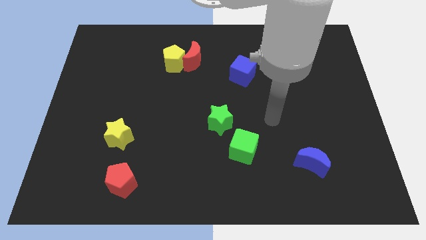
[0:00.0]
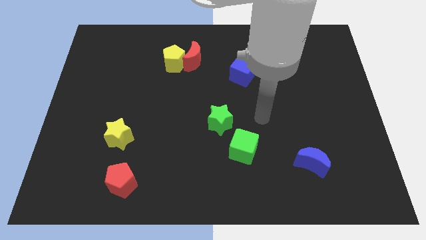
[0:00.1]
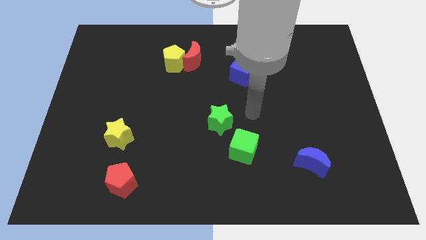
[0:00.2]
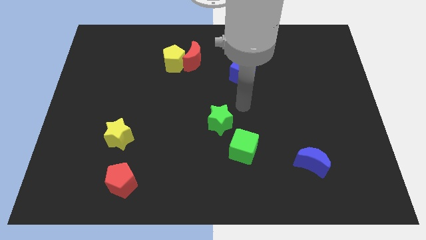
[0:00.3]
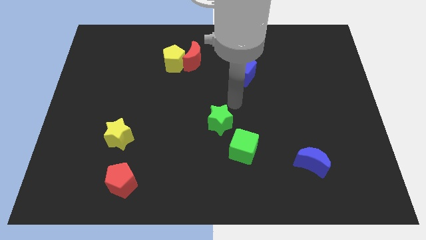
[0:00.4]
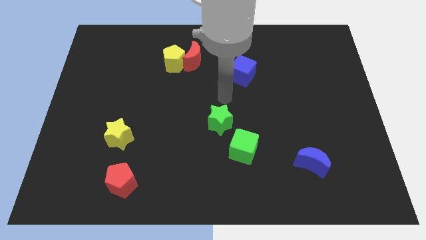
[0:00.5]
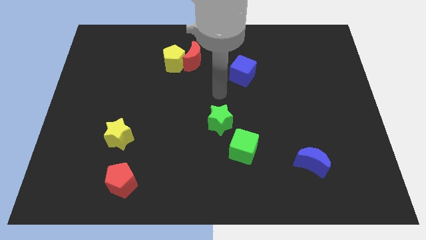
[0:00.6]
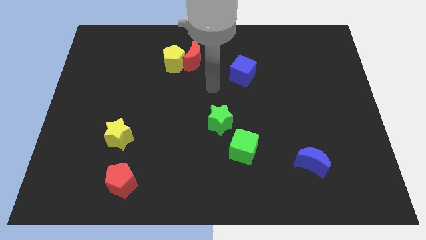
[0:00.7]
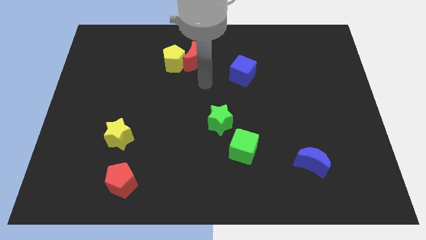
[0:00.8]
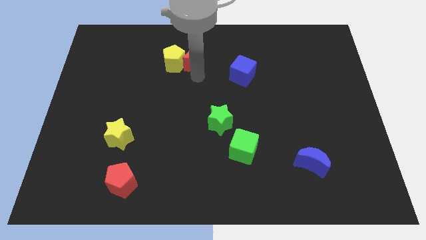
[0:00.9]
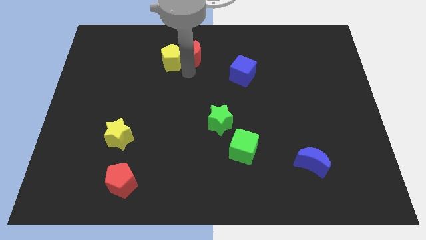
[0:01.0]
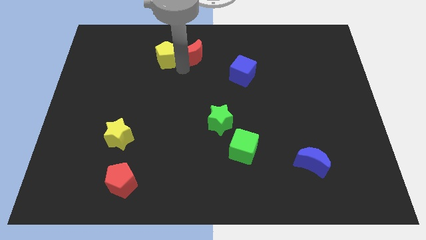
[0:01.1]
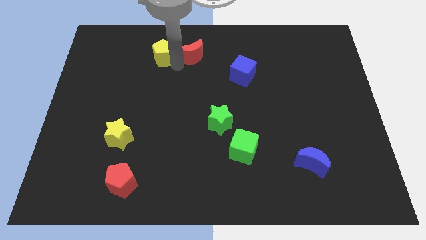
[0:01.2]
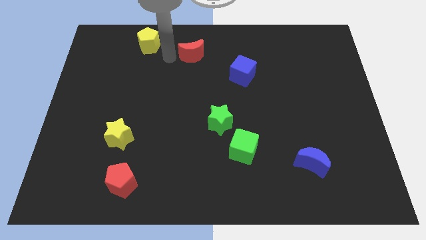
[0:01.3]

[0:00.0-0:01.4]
pull the red moon apart from the yellow pentagon

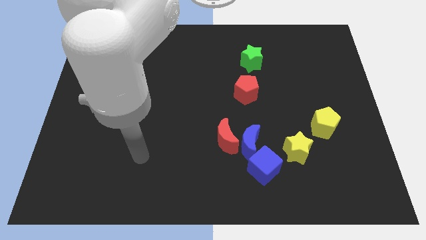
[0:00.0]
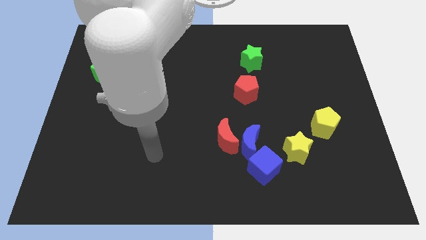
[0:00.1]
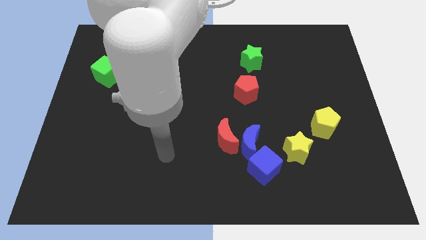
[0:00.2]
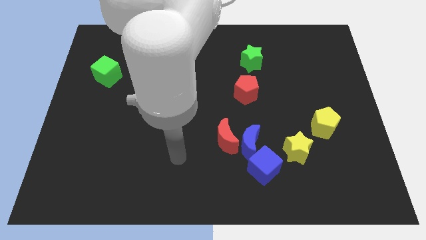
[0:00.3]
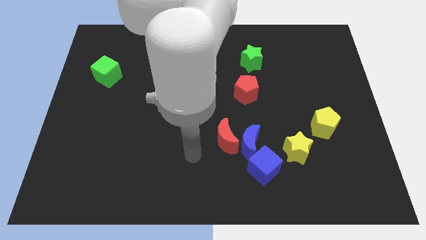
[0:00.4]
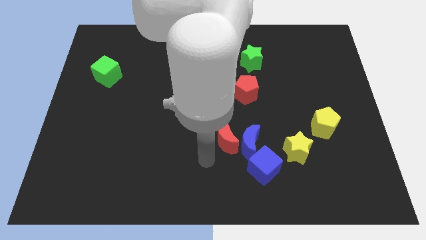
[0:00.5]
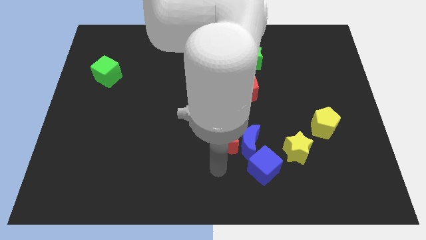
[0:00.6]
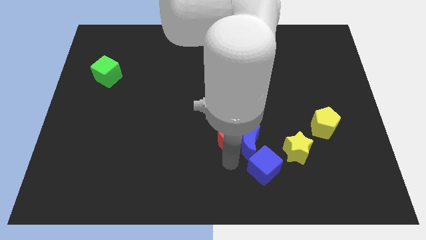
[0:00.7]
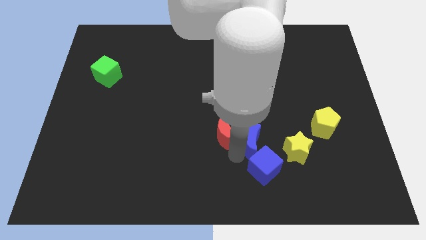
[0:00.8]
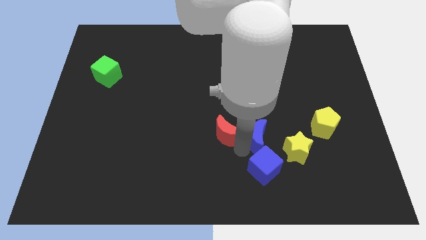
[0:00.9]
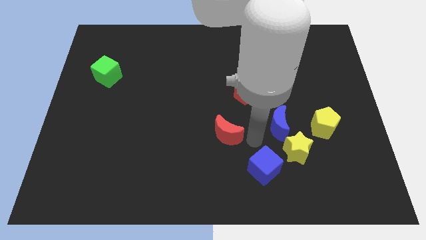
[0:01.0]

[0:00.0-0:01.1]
pull the red moon apart from the blue moon

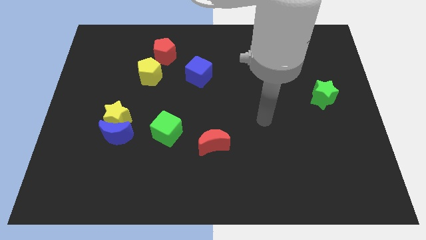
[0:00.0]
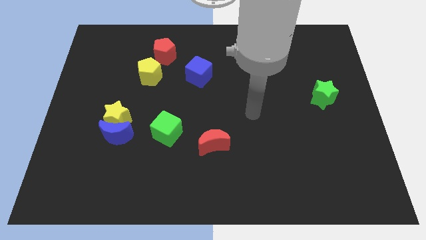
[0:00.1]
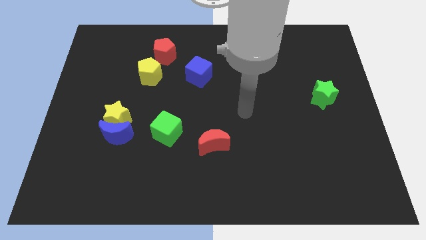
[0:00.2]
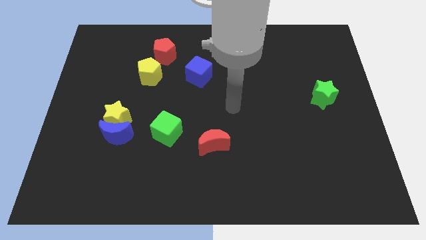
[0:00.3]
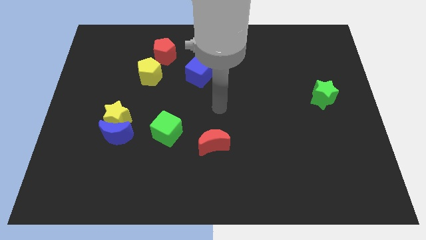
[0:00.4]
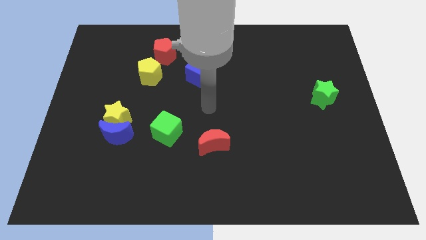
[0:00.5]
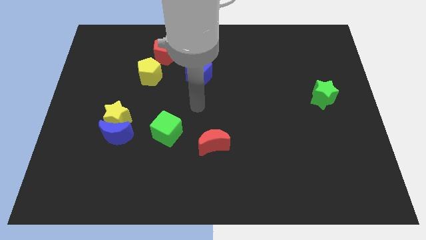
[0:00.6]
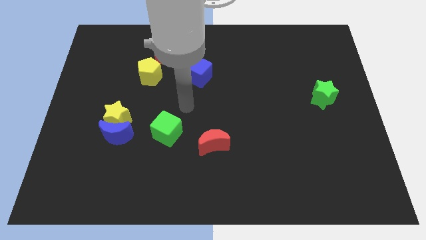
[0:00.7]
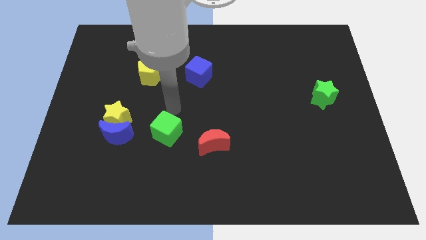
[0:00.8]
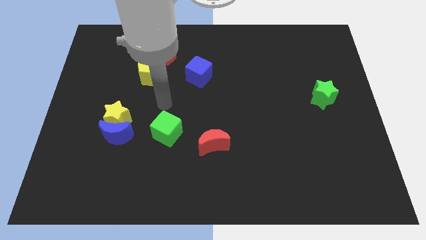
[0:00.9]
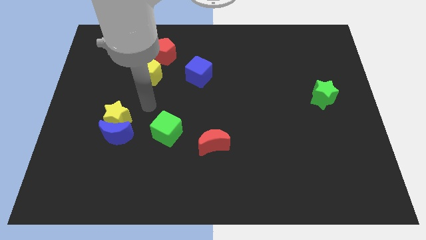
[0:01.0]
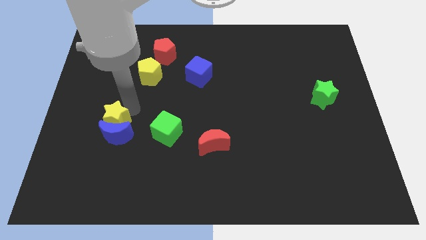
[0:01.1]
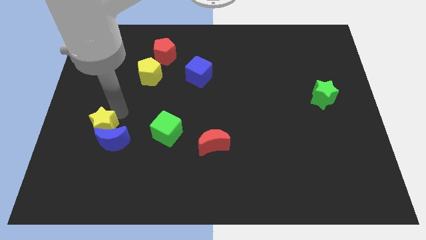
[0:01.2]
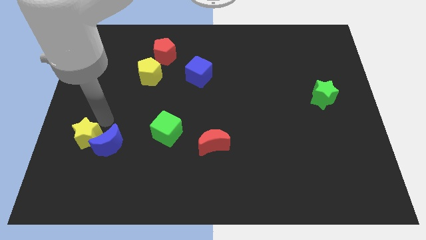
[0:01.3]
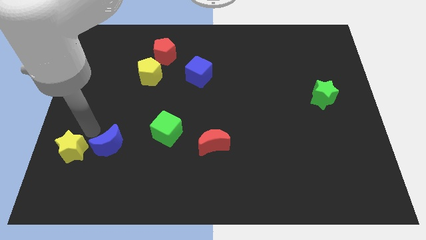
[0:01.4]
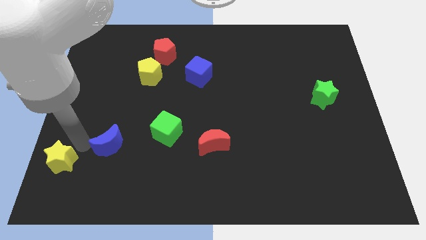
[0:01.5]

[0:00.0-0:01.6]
move the blue moon away from the yellow star

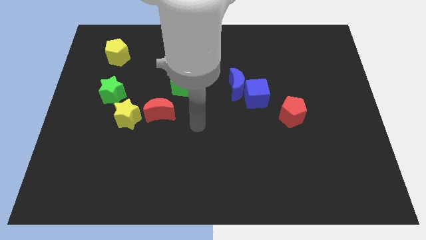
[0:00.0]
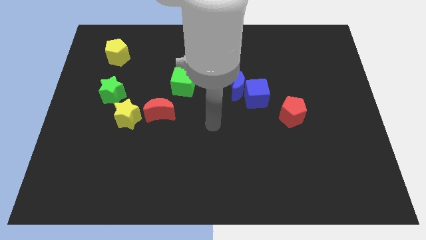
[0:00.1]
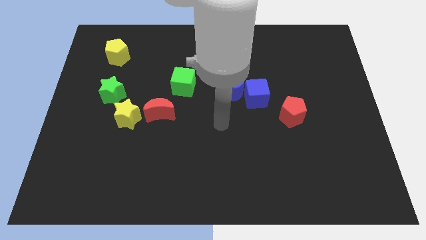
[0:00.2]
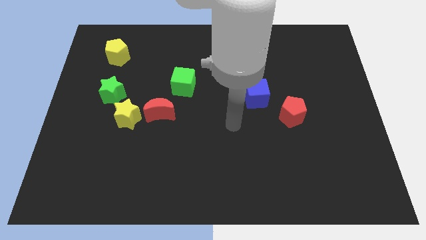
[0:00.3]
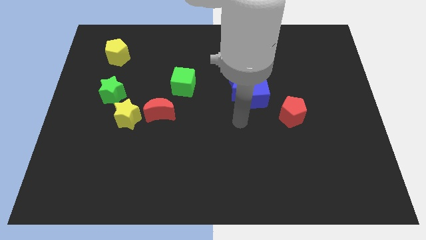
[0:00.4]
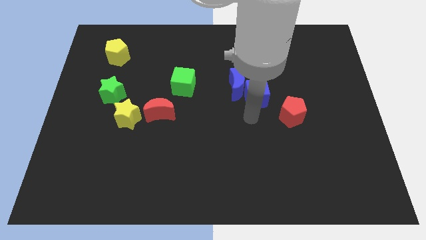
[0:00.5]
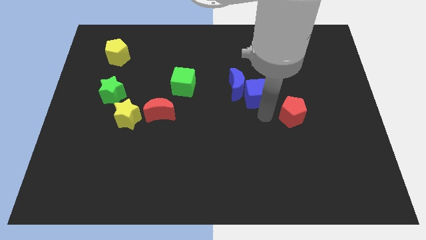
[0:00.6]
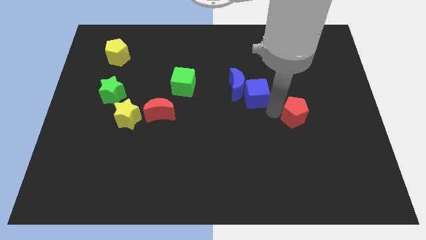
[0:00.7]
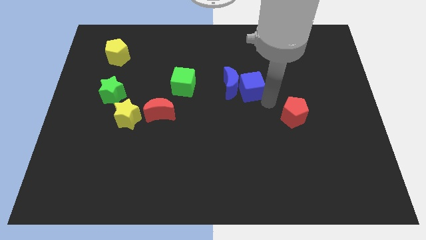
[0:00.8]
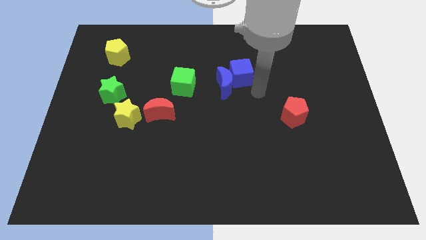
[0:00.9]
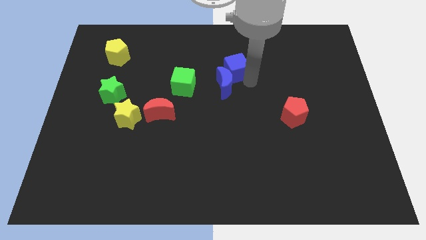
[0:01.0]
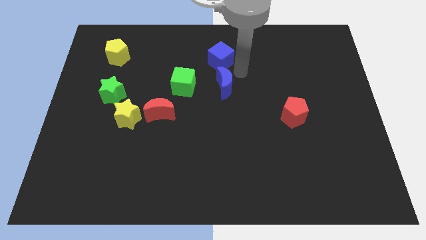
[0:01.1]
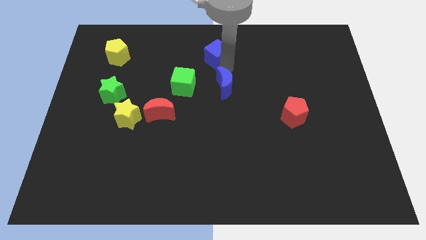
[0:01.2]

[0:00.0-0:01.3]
separate the blue moon from the blue cube

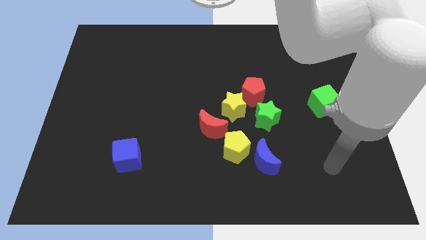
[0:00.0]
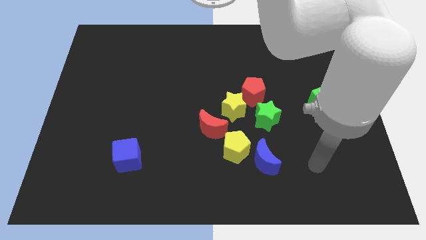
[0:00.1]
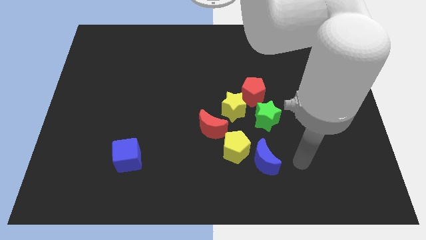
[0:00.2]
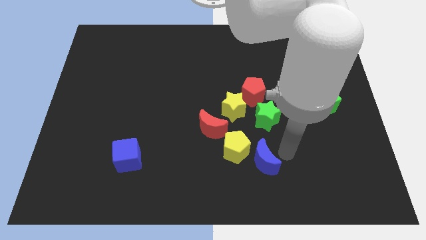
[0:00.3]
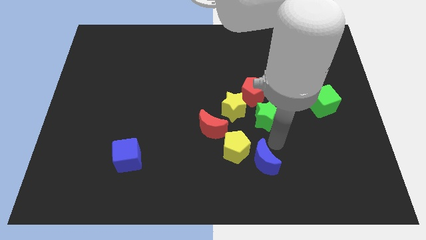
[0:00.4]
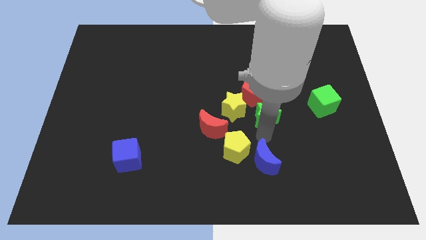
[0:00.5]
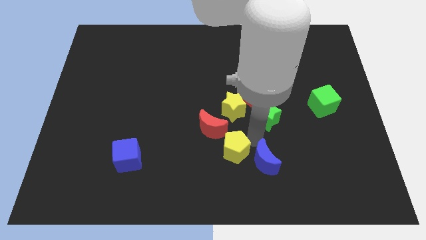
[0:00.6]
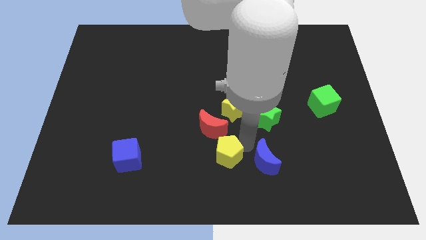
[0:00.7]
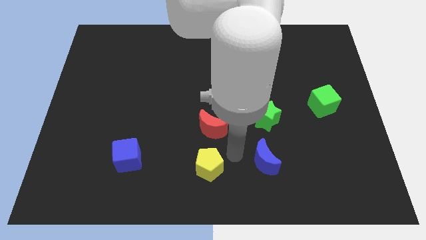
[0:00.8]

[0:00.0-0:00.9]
pull the blue moon apart from the yellow pentagon

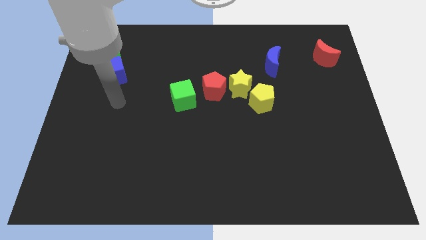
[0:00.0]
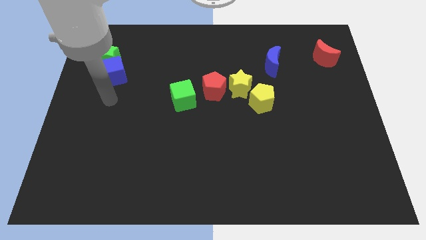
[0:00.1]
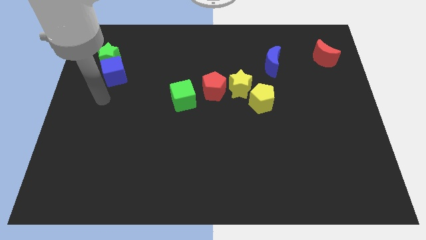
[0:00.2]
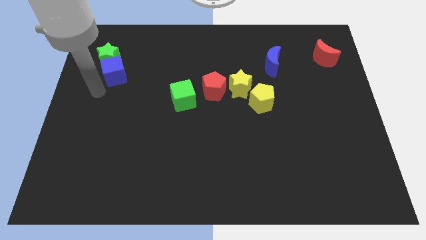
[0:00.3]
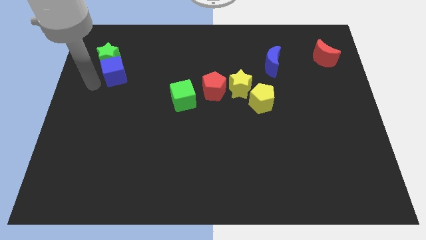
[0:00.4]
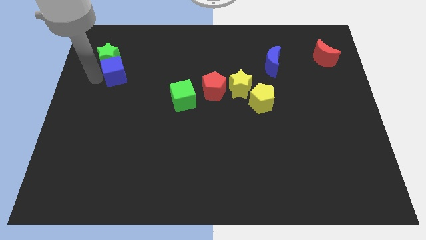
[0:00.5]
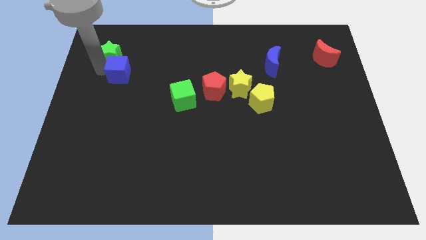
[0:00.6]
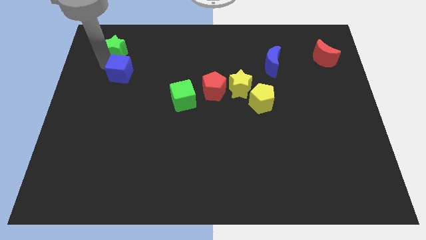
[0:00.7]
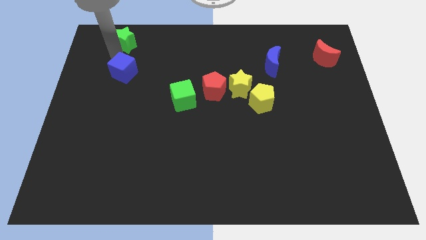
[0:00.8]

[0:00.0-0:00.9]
pull the blue cube apart from the green star

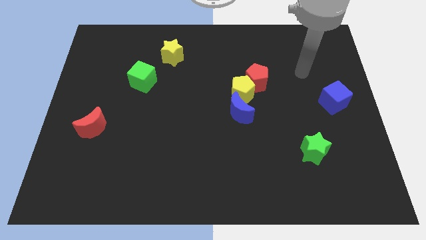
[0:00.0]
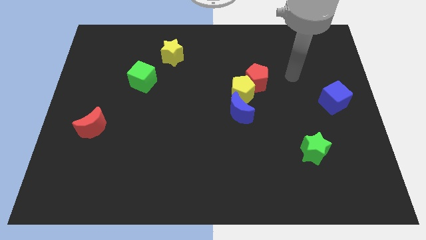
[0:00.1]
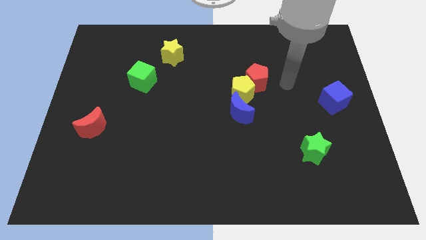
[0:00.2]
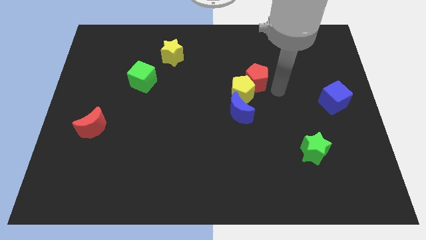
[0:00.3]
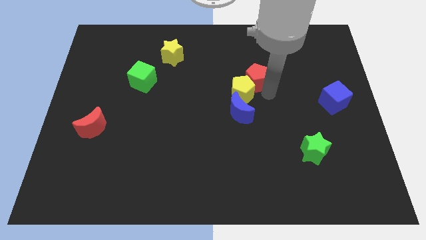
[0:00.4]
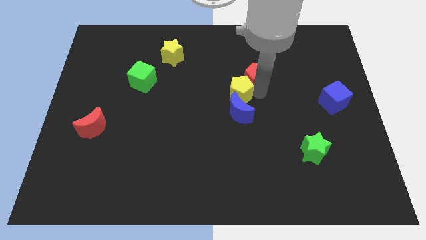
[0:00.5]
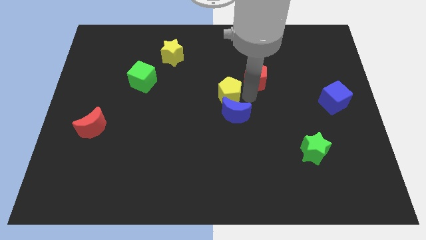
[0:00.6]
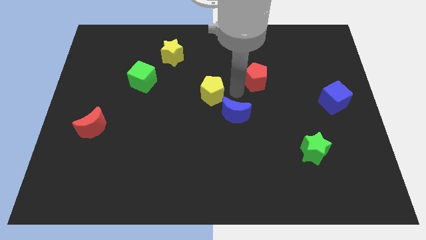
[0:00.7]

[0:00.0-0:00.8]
move the red pentagon away from the yellow pentagon

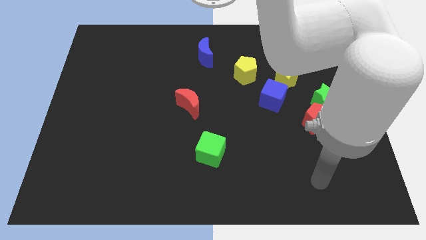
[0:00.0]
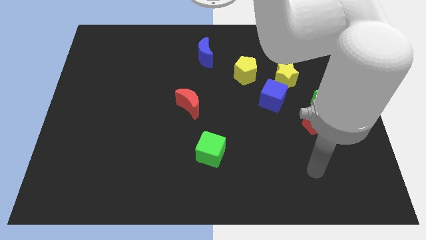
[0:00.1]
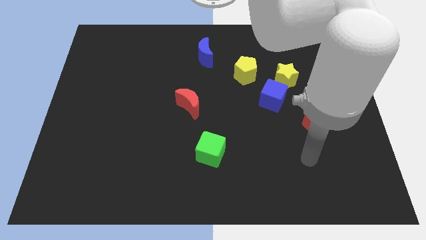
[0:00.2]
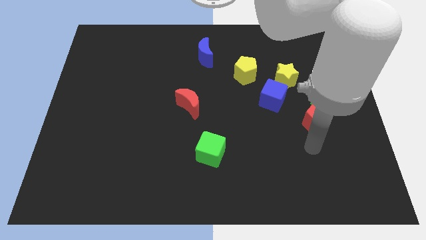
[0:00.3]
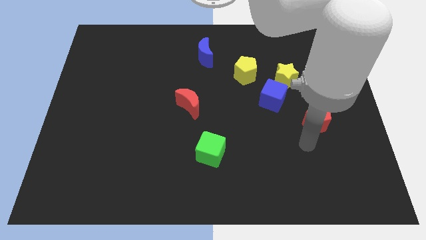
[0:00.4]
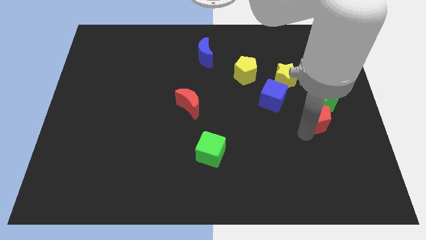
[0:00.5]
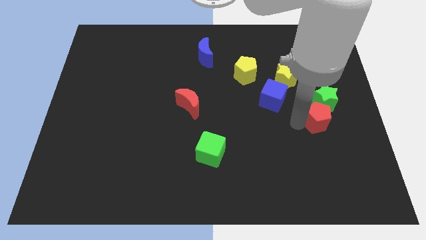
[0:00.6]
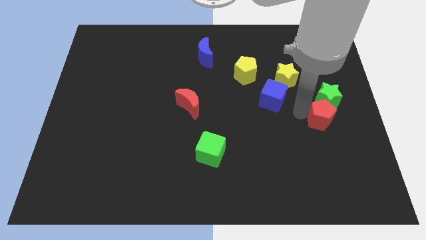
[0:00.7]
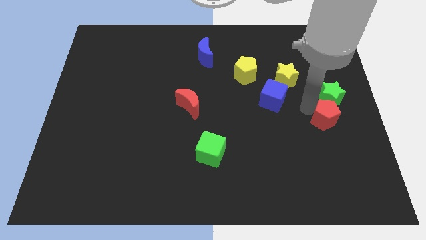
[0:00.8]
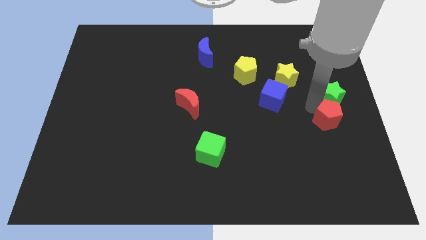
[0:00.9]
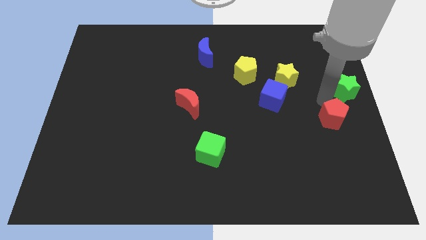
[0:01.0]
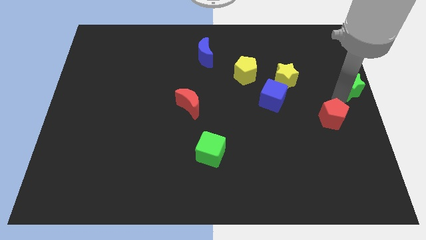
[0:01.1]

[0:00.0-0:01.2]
move the red pentagon away from the green star
